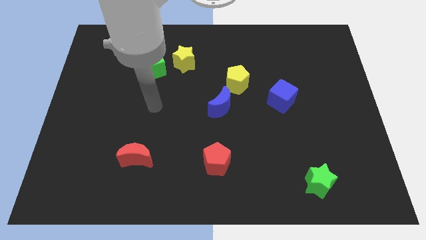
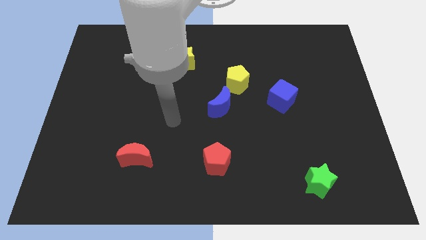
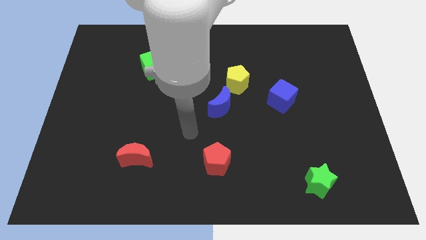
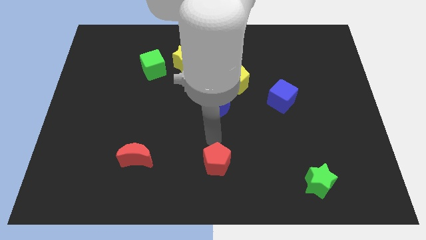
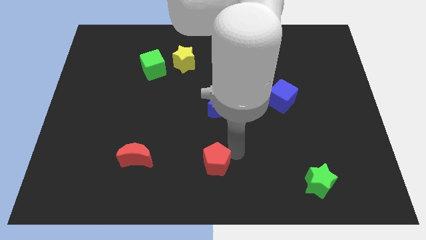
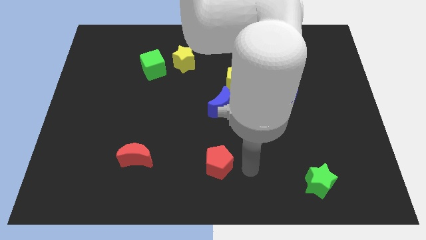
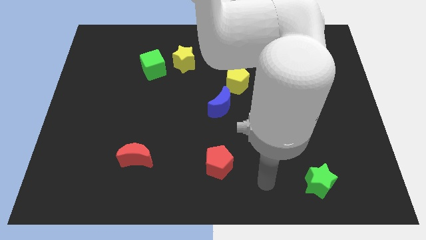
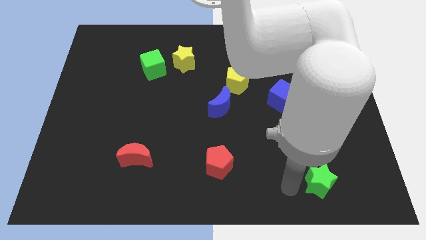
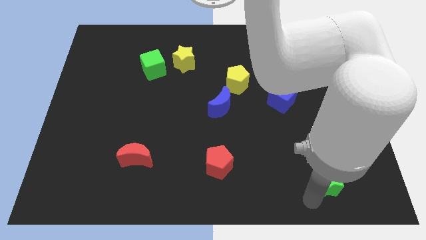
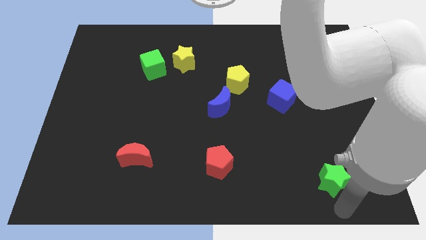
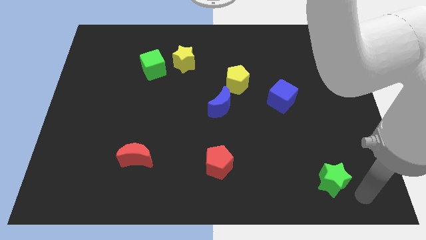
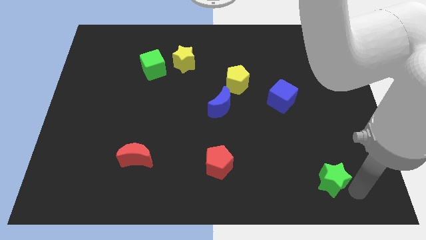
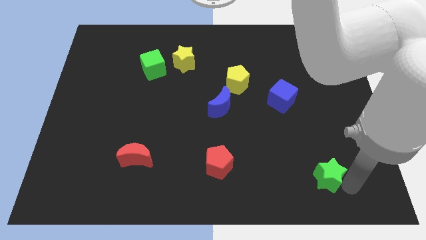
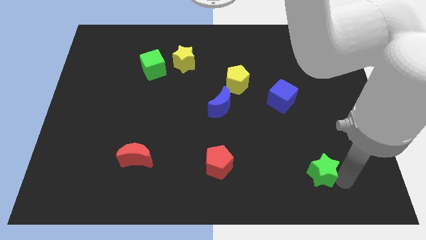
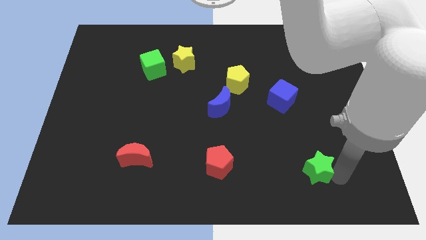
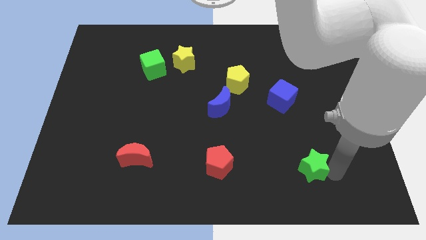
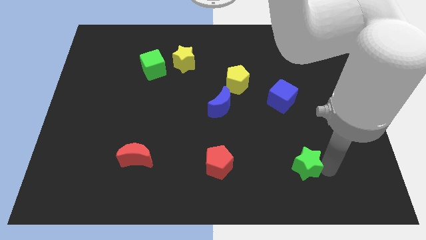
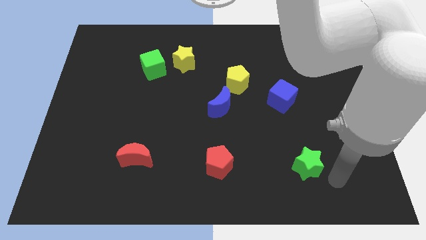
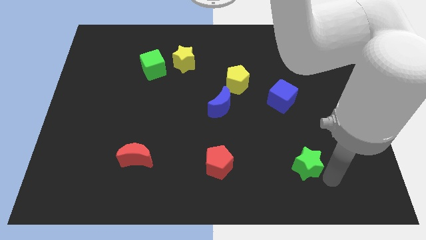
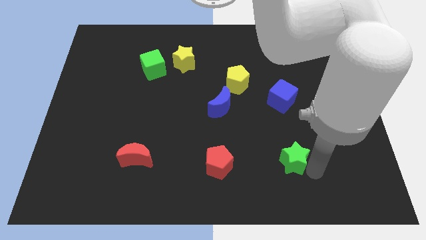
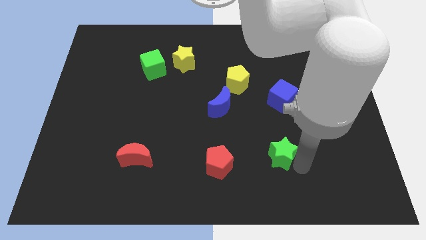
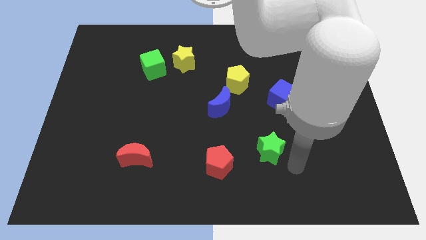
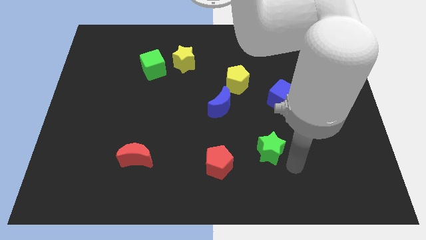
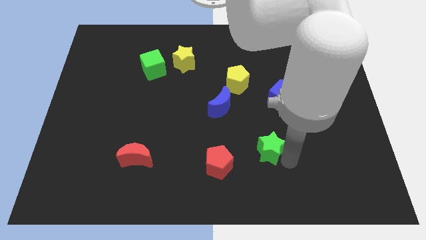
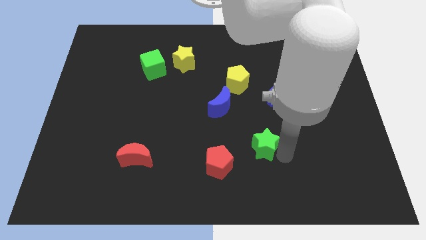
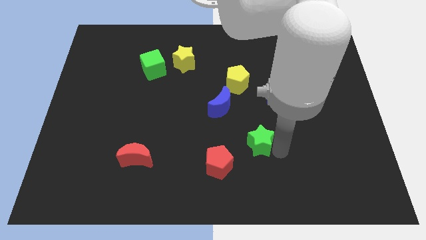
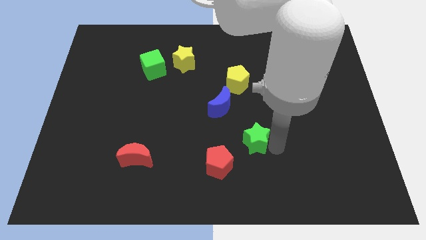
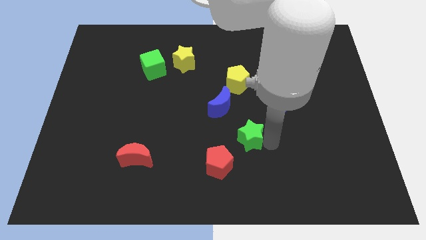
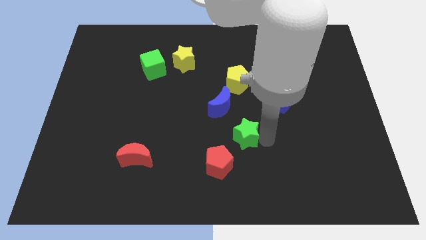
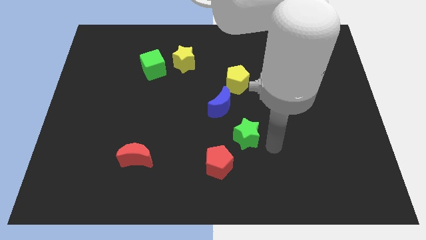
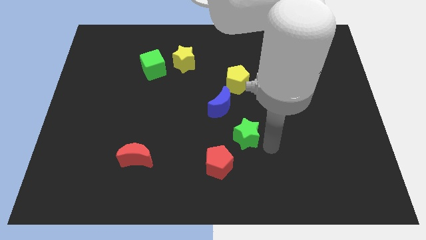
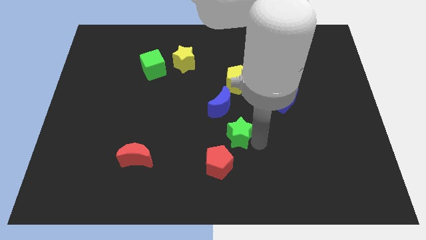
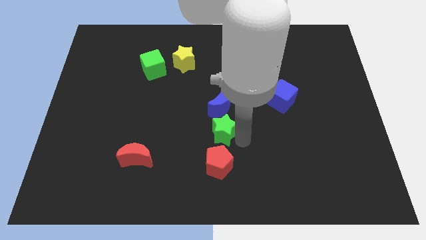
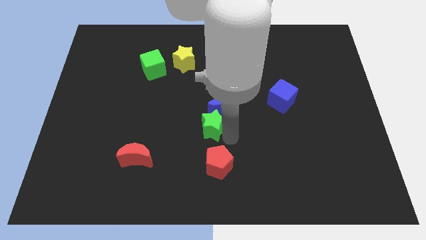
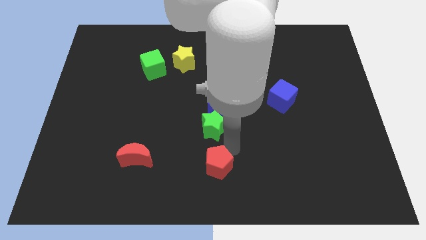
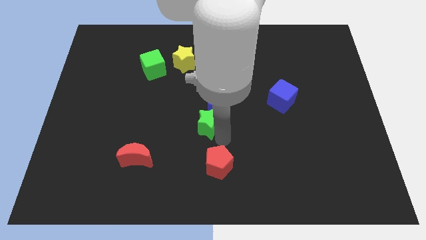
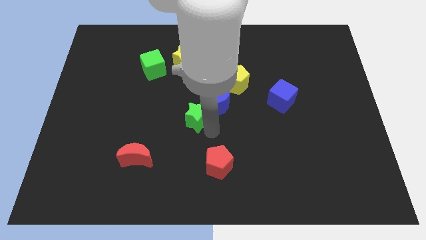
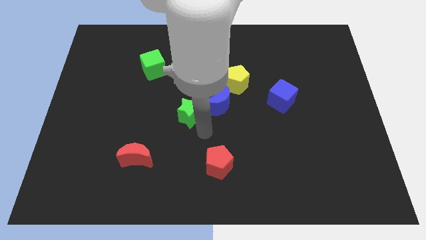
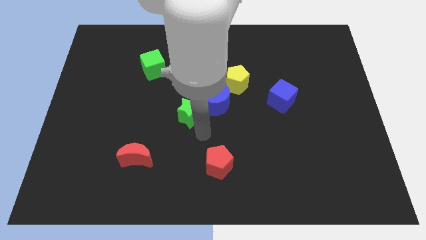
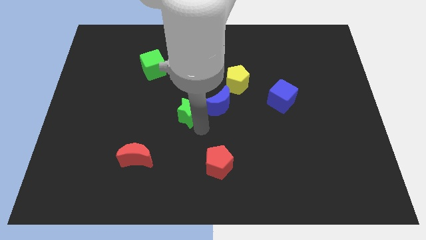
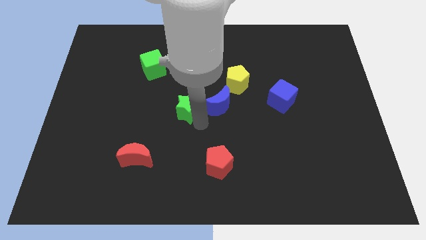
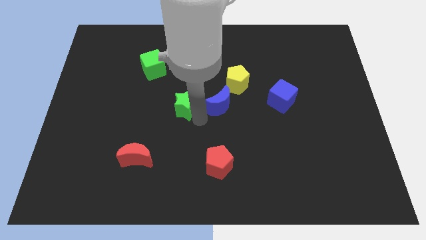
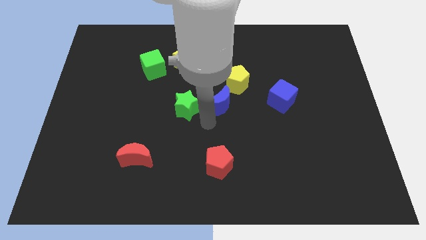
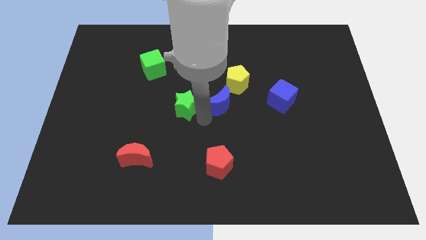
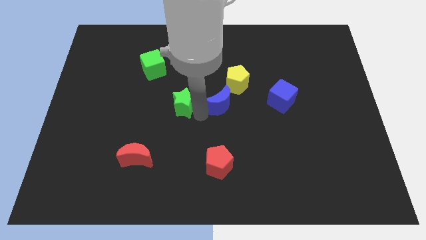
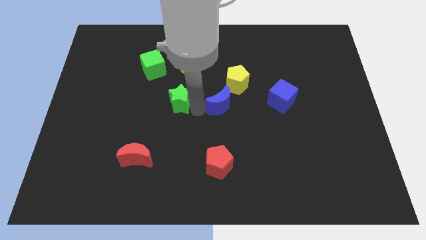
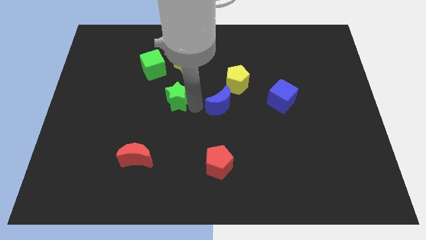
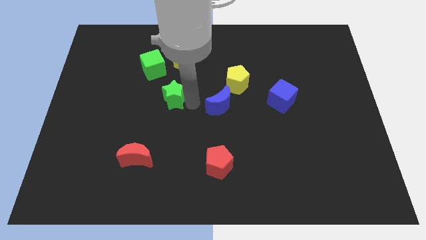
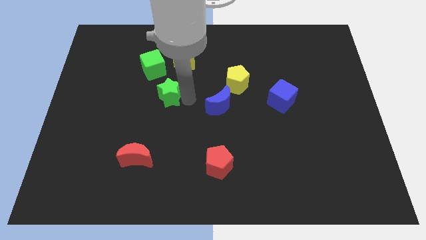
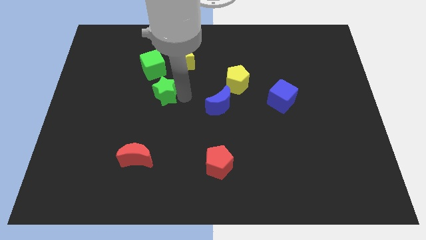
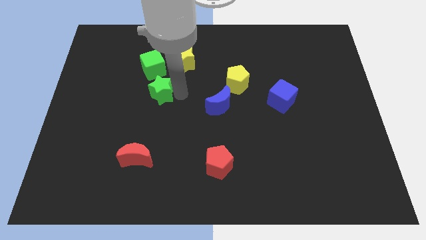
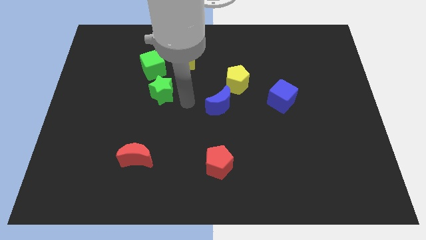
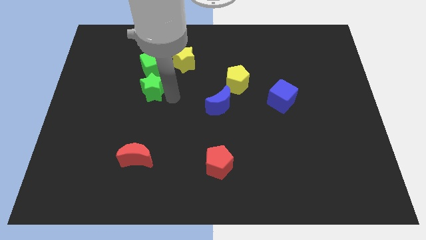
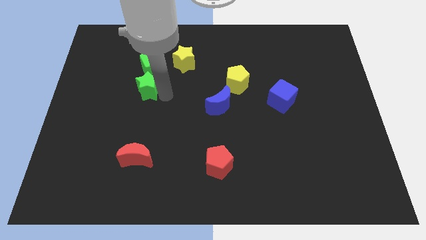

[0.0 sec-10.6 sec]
put the green star to the bottom left side of the green cube

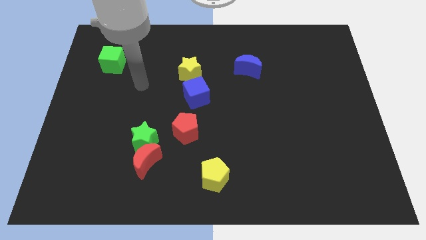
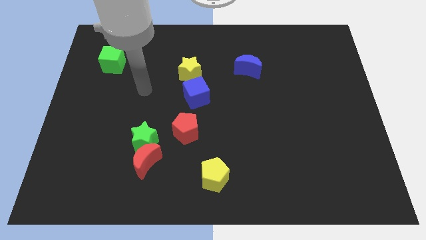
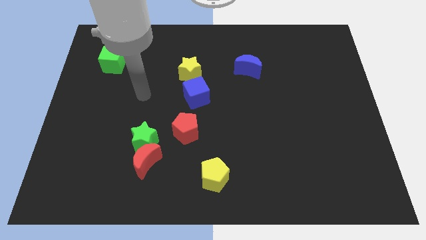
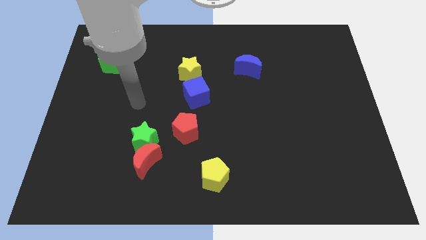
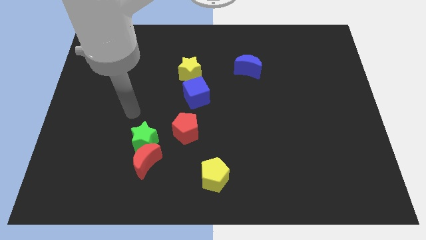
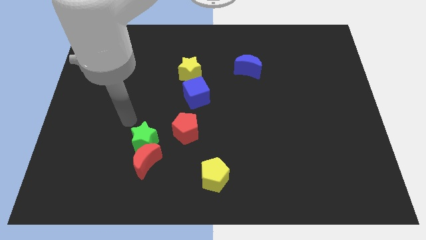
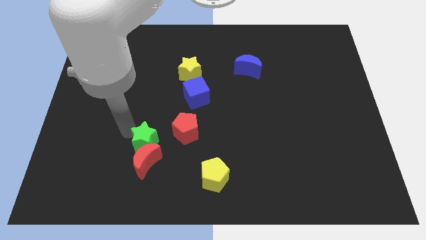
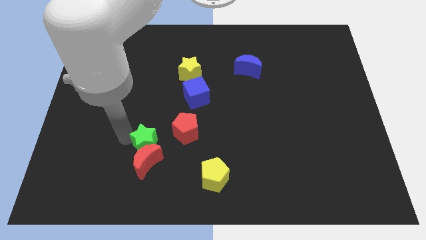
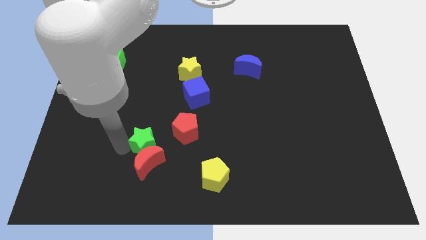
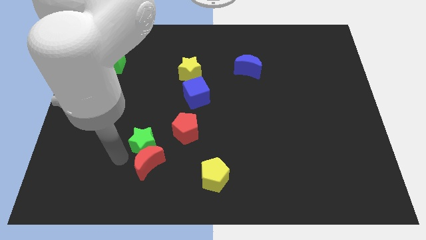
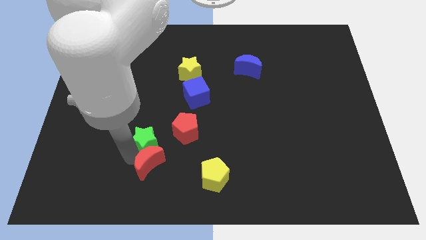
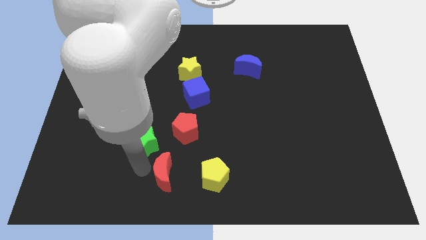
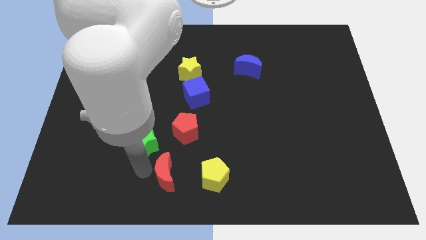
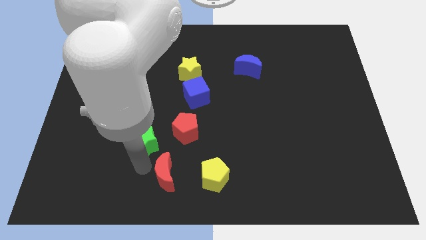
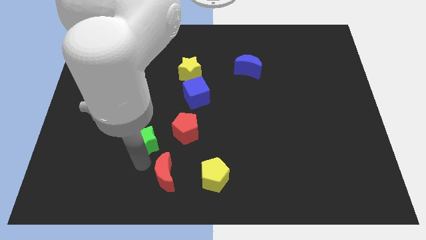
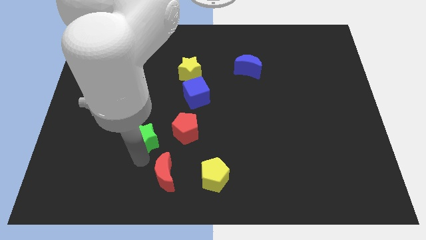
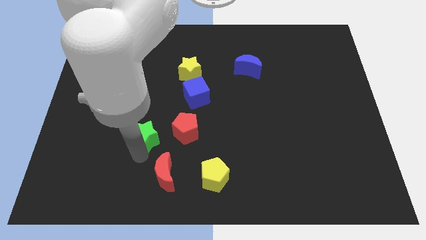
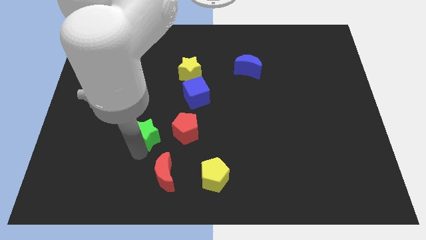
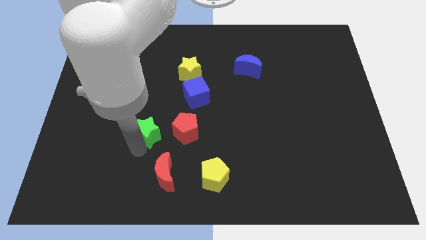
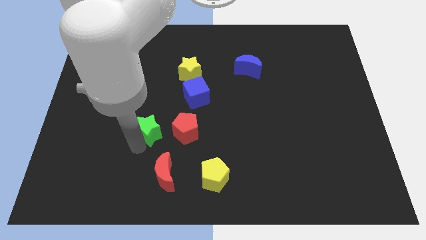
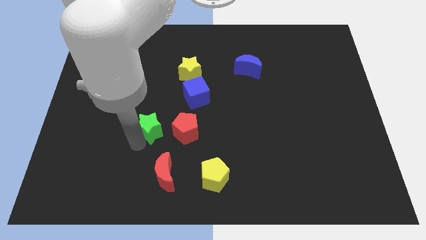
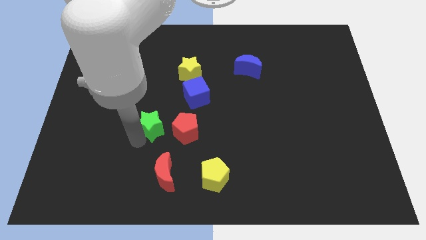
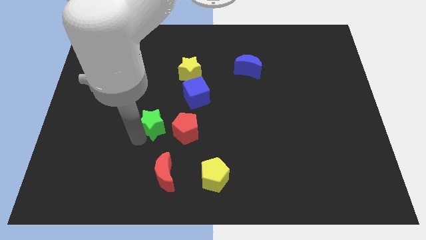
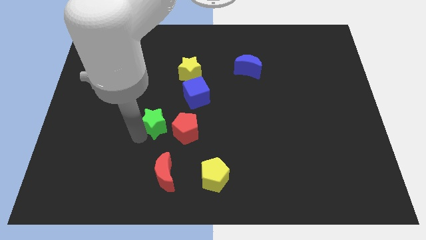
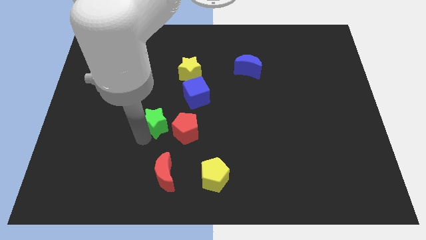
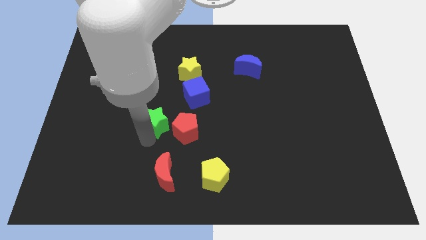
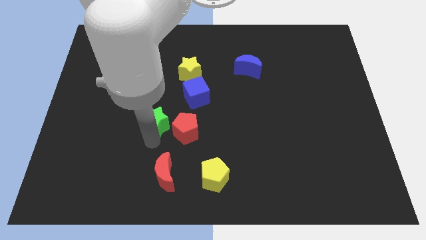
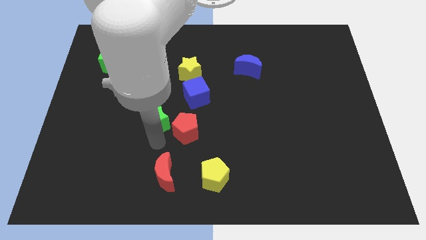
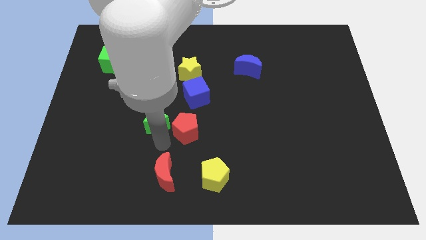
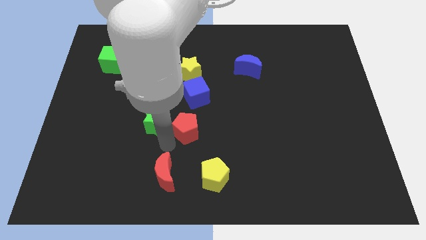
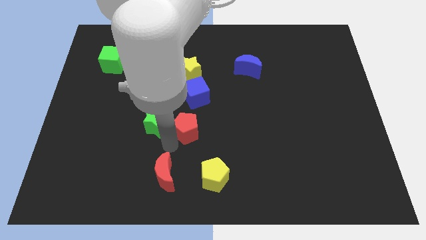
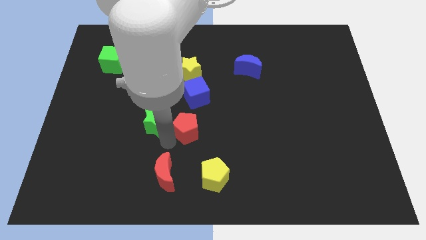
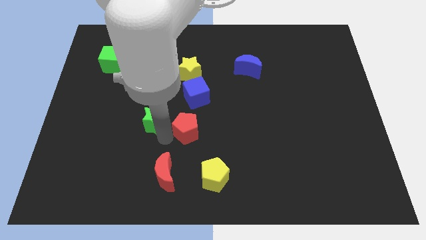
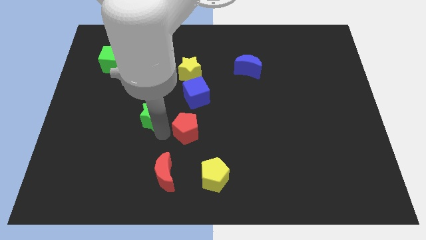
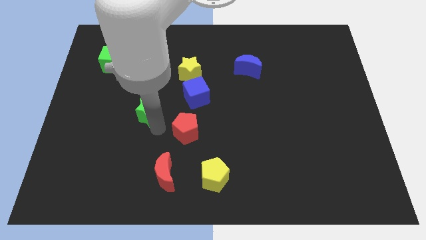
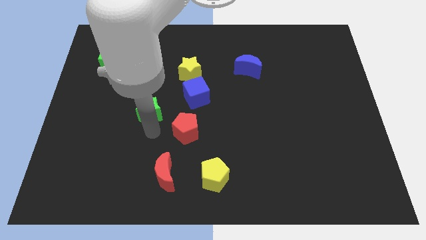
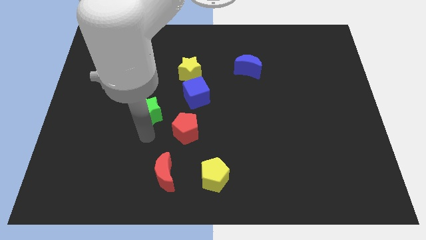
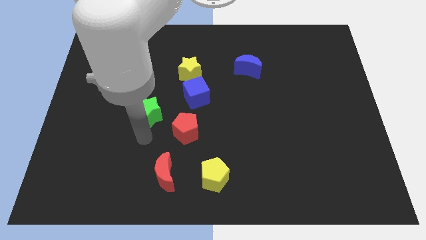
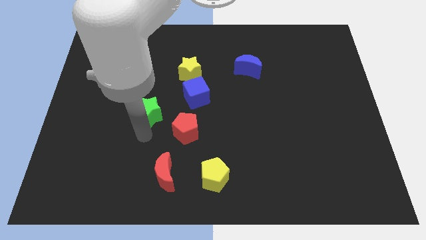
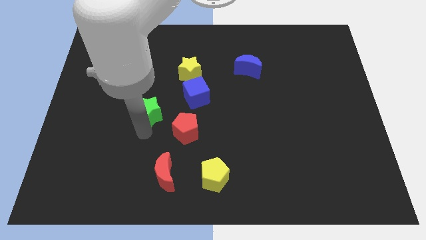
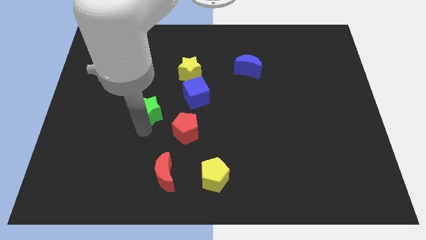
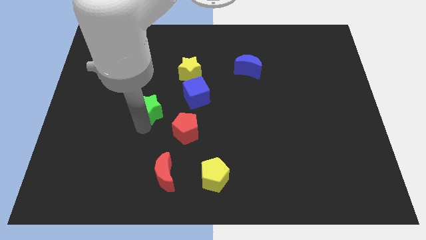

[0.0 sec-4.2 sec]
push the green star just left of the blue cube
